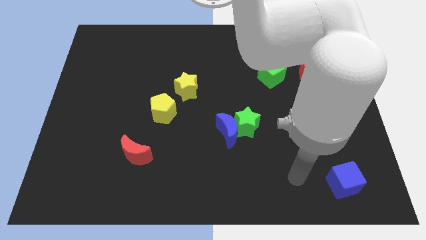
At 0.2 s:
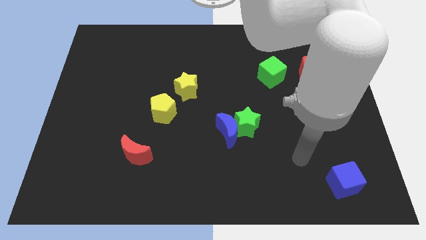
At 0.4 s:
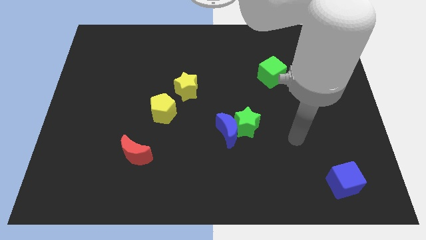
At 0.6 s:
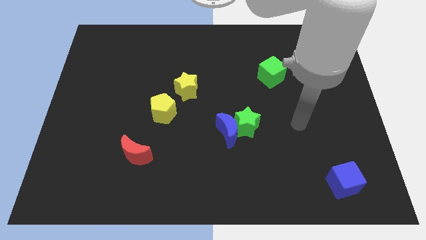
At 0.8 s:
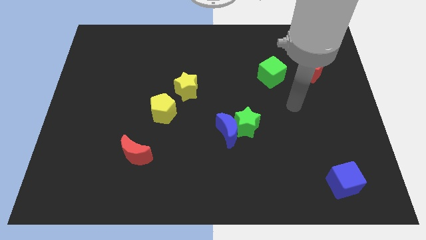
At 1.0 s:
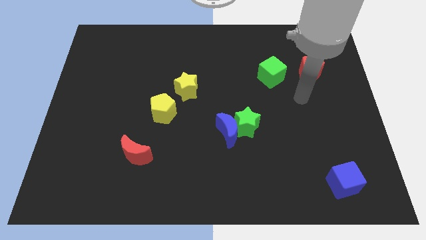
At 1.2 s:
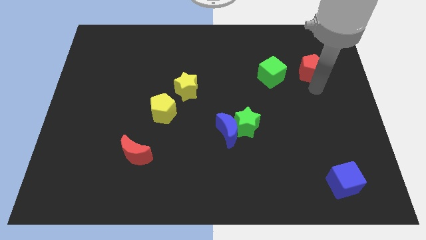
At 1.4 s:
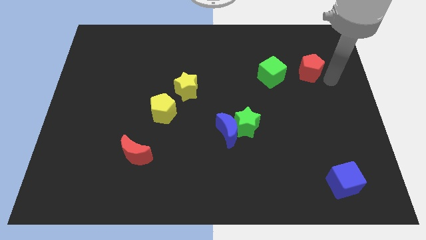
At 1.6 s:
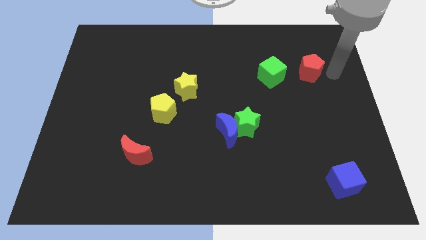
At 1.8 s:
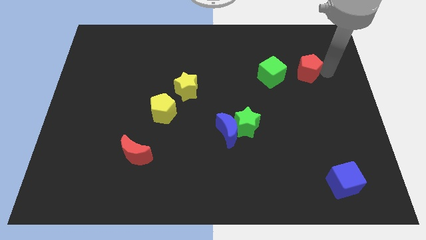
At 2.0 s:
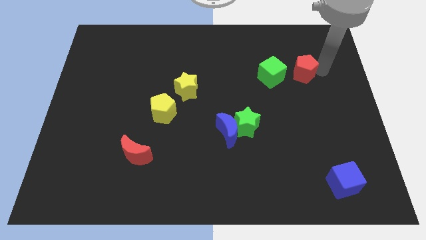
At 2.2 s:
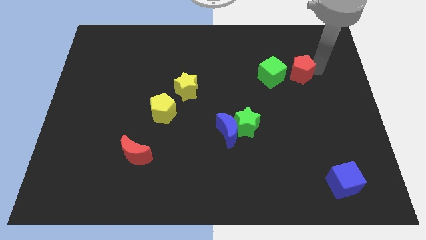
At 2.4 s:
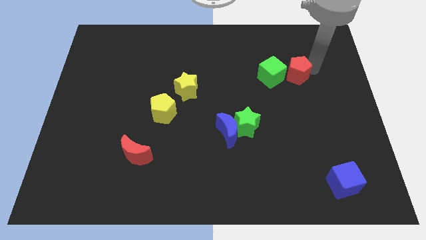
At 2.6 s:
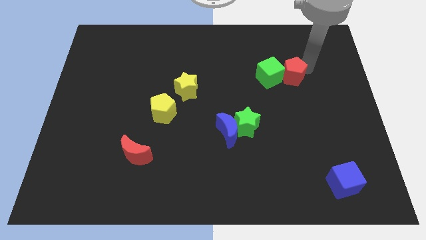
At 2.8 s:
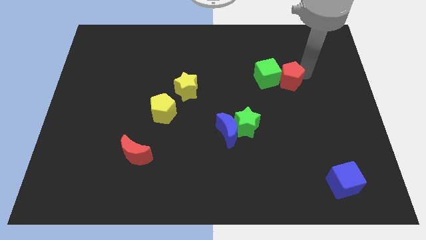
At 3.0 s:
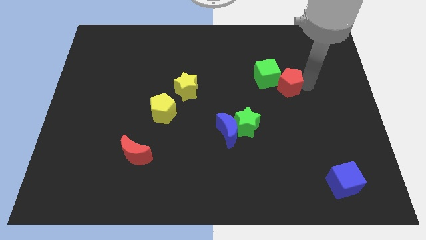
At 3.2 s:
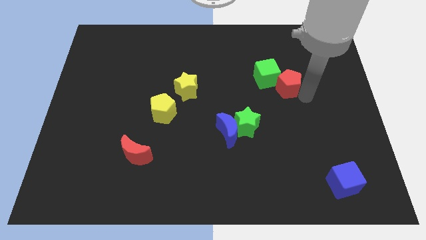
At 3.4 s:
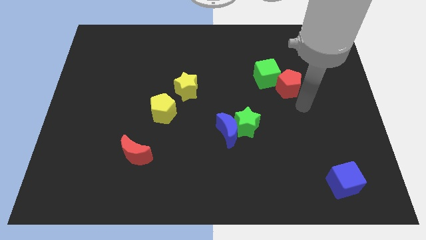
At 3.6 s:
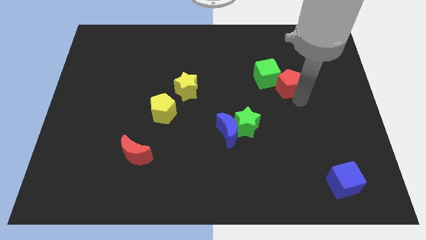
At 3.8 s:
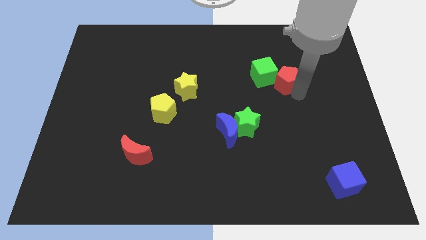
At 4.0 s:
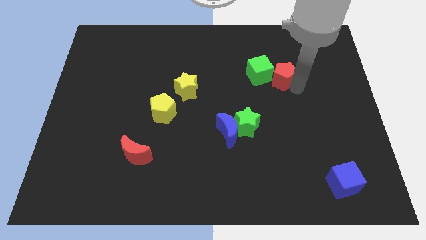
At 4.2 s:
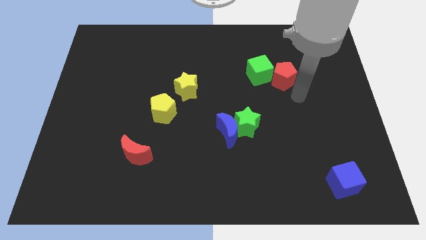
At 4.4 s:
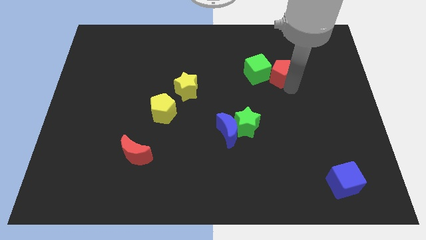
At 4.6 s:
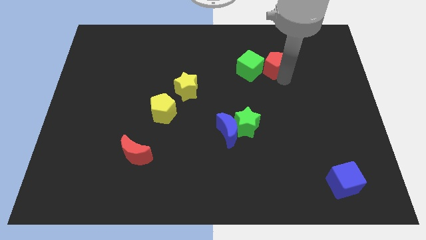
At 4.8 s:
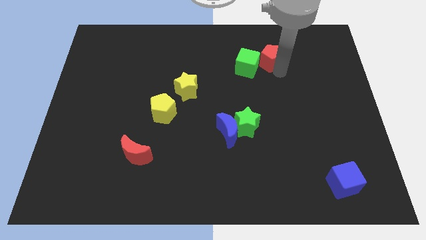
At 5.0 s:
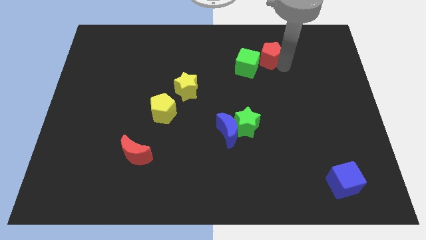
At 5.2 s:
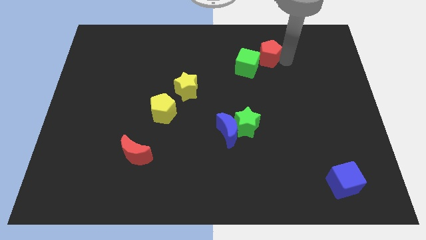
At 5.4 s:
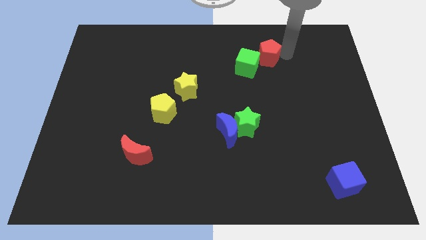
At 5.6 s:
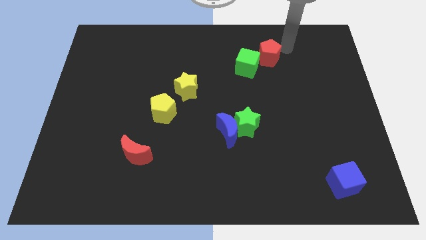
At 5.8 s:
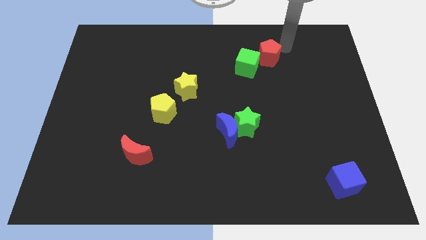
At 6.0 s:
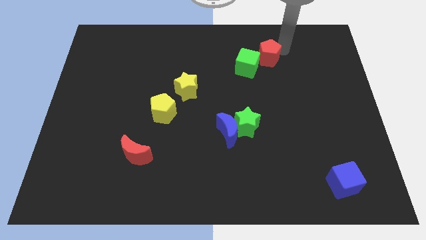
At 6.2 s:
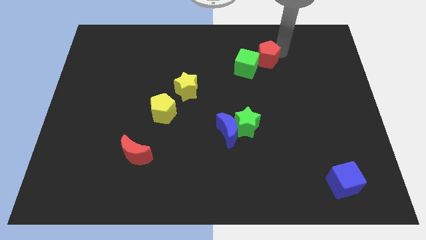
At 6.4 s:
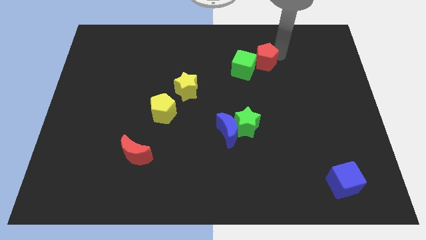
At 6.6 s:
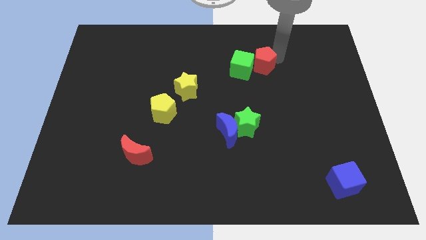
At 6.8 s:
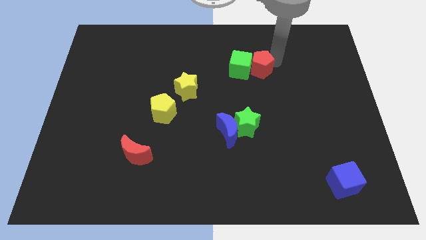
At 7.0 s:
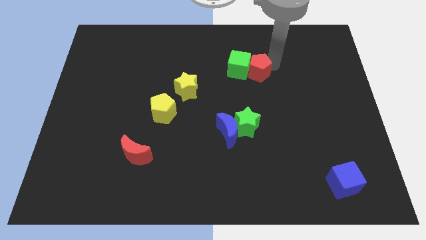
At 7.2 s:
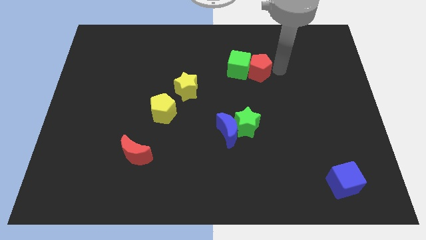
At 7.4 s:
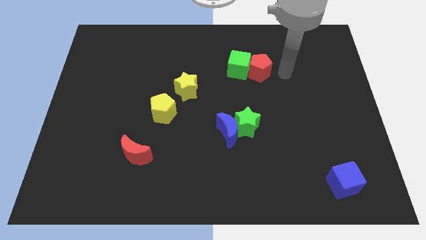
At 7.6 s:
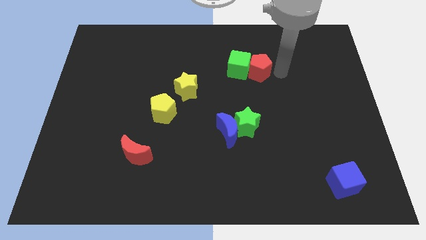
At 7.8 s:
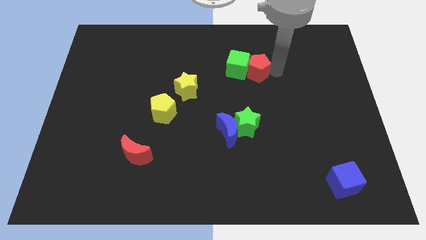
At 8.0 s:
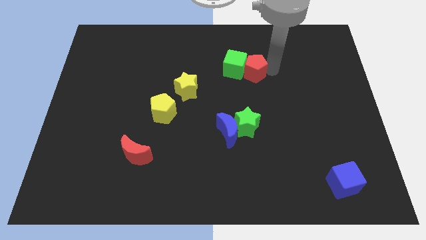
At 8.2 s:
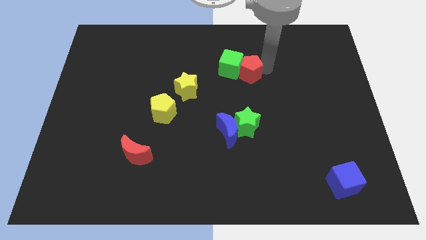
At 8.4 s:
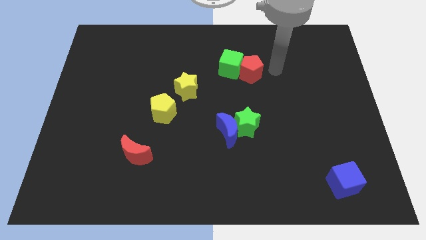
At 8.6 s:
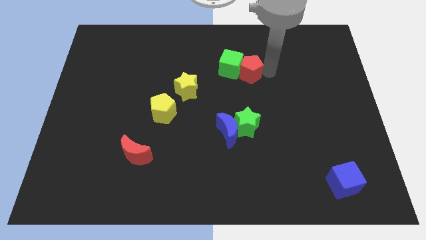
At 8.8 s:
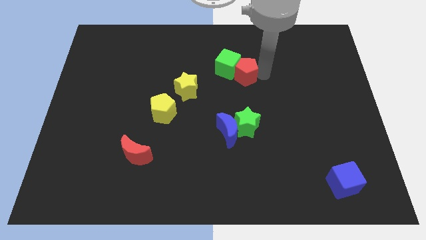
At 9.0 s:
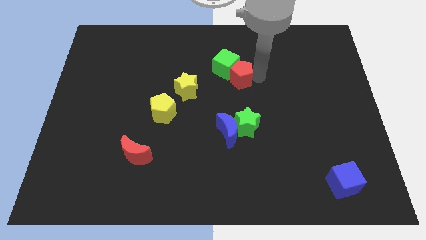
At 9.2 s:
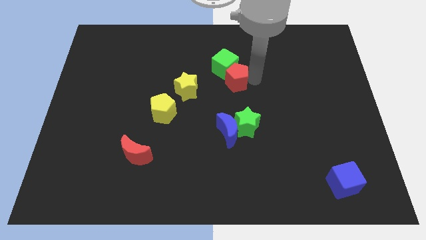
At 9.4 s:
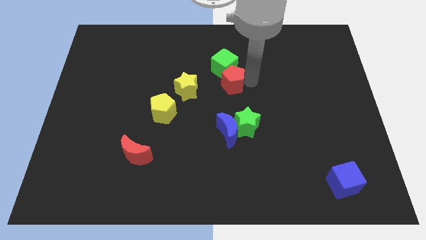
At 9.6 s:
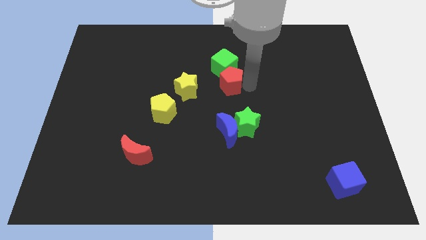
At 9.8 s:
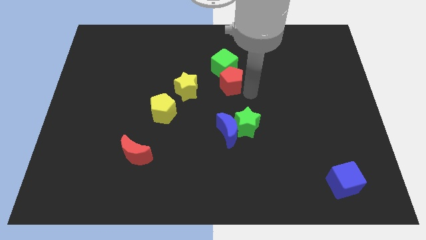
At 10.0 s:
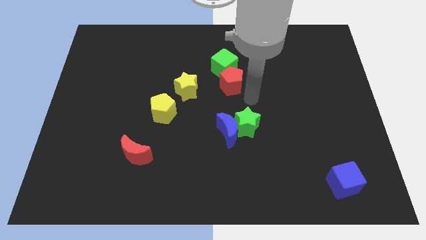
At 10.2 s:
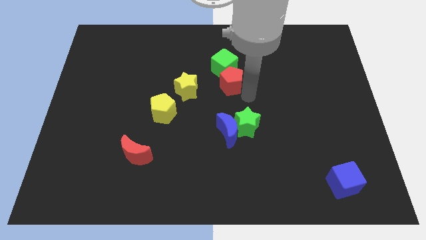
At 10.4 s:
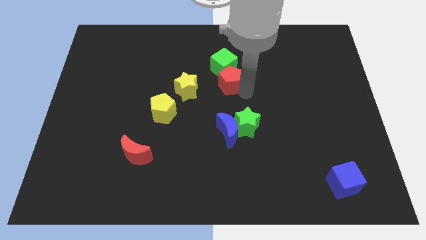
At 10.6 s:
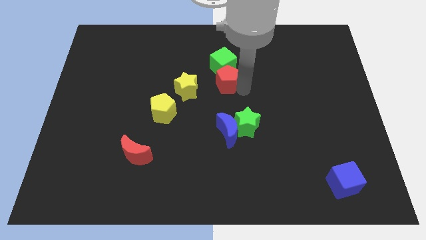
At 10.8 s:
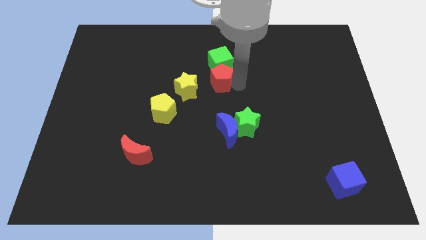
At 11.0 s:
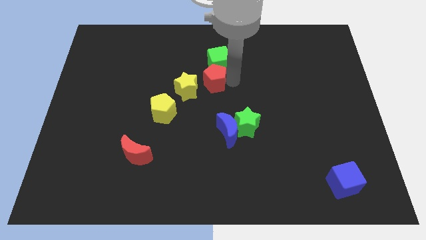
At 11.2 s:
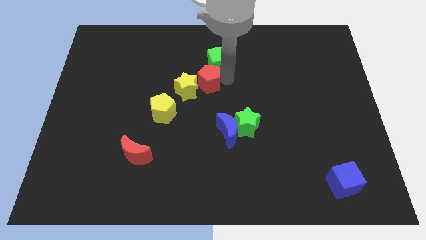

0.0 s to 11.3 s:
push the red pentagon close to the yellow star

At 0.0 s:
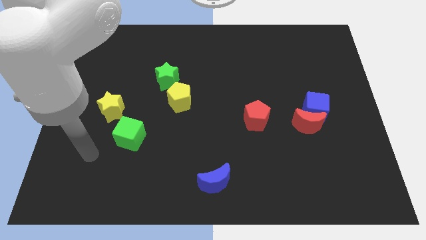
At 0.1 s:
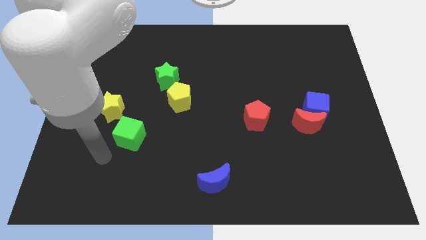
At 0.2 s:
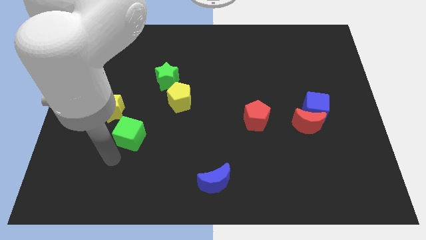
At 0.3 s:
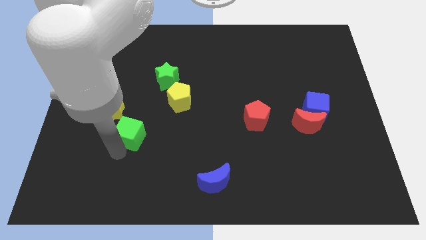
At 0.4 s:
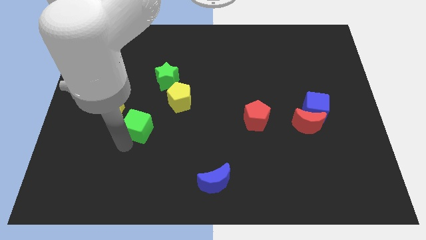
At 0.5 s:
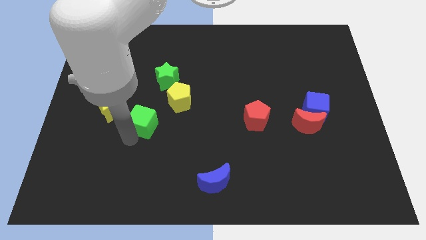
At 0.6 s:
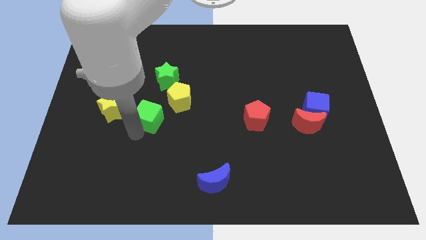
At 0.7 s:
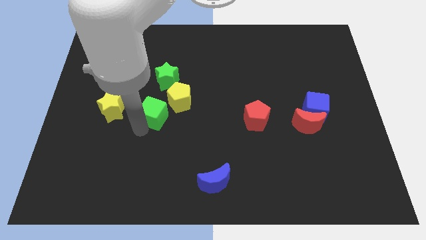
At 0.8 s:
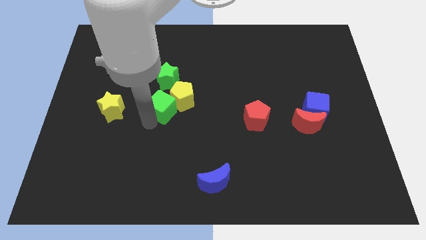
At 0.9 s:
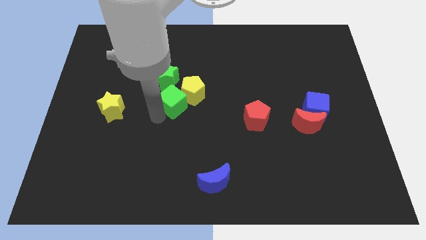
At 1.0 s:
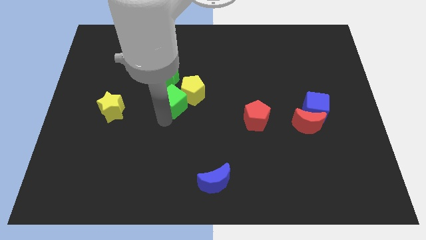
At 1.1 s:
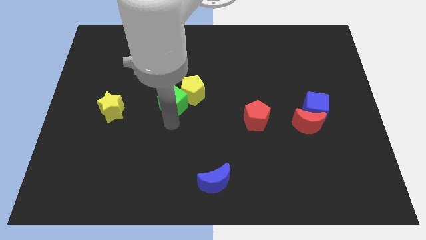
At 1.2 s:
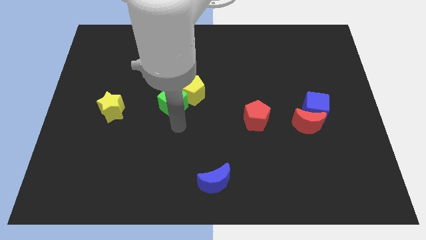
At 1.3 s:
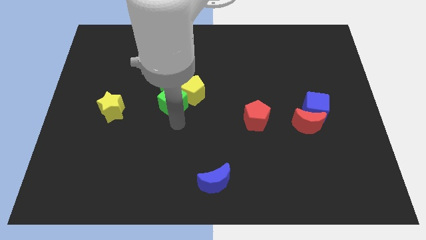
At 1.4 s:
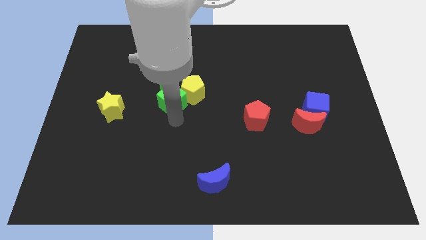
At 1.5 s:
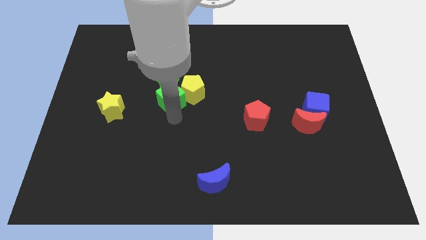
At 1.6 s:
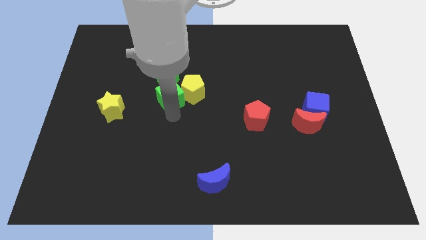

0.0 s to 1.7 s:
move the green cube towards the green star
